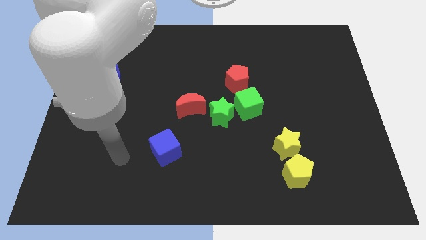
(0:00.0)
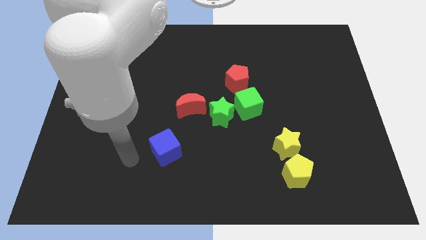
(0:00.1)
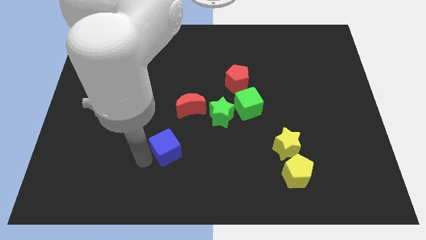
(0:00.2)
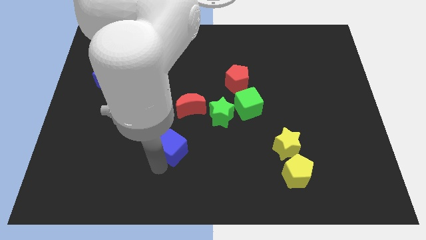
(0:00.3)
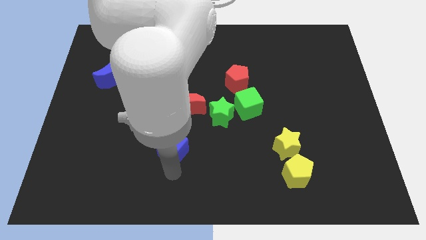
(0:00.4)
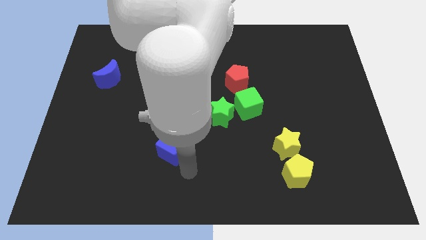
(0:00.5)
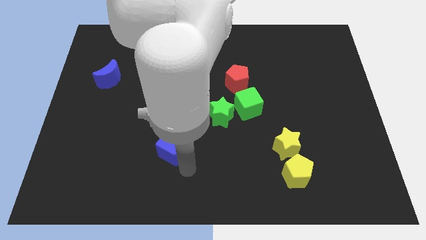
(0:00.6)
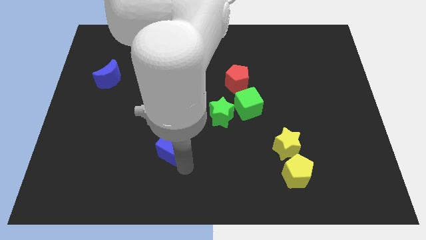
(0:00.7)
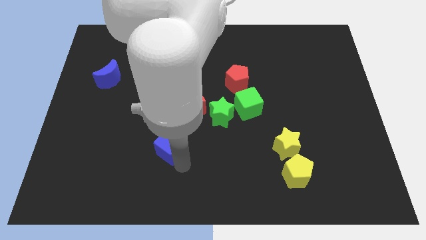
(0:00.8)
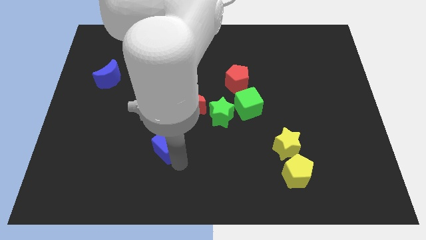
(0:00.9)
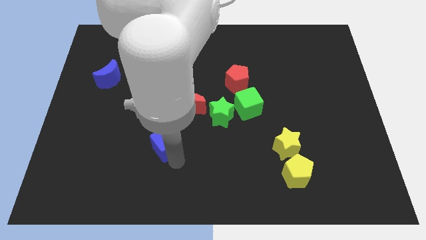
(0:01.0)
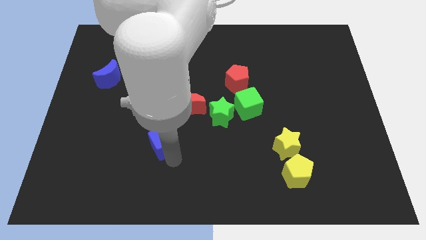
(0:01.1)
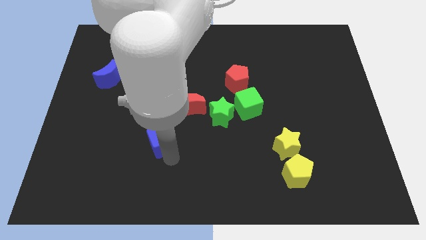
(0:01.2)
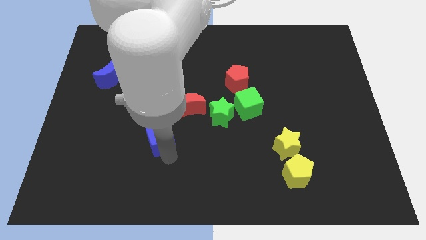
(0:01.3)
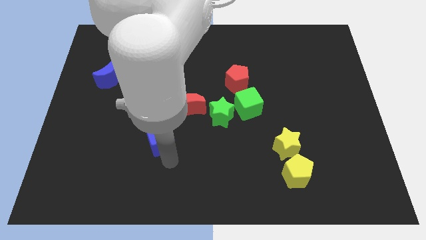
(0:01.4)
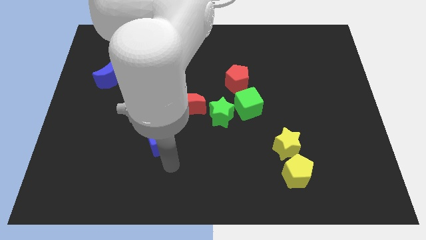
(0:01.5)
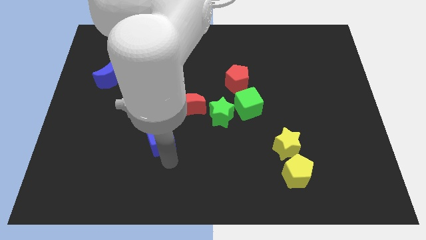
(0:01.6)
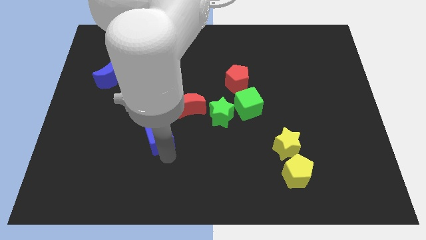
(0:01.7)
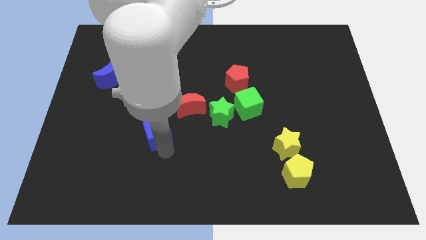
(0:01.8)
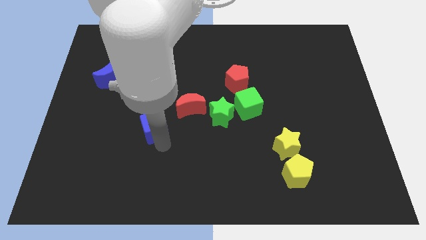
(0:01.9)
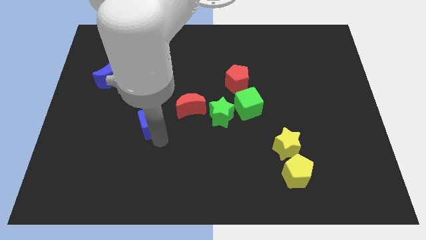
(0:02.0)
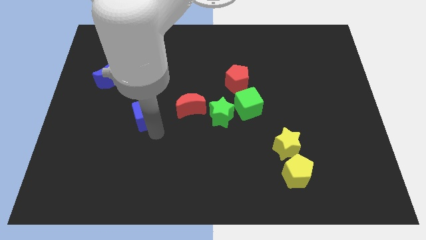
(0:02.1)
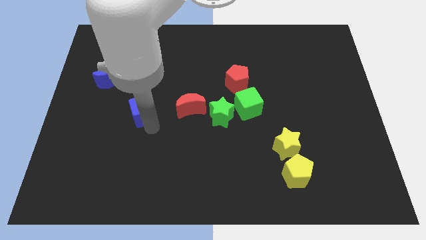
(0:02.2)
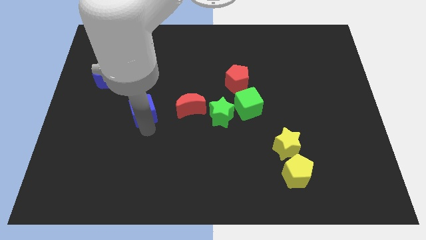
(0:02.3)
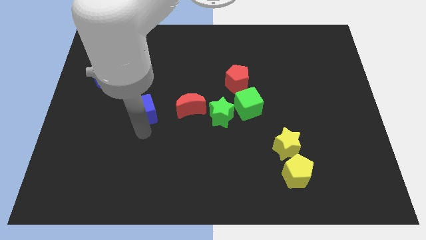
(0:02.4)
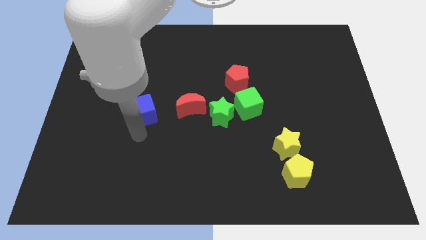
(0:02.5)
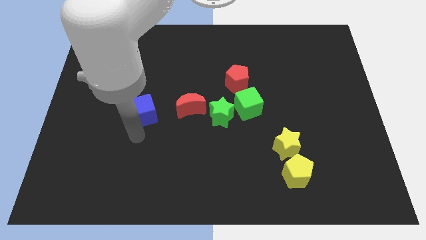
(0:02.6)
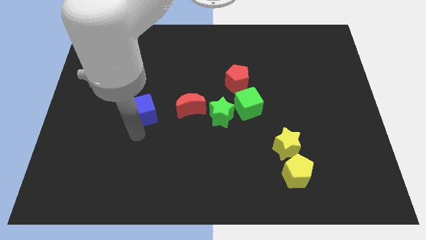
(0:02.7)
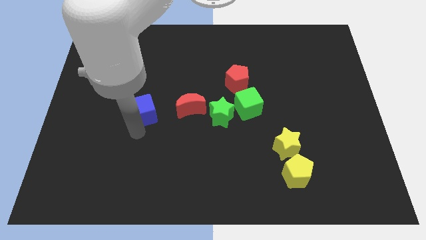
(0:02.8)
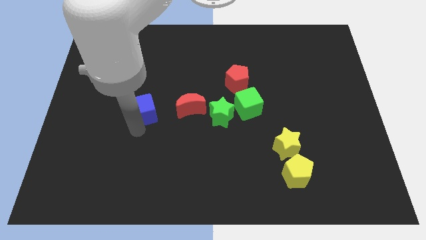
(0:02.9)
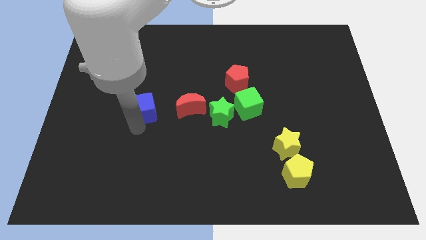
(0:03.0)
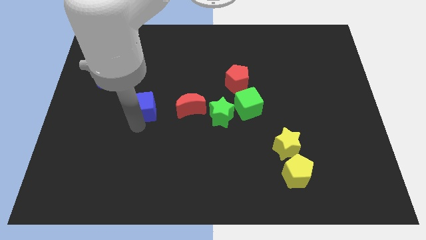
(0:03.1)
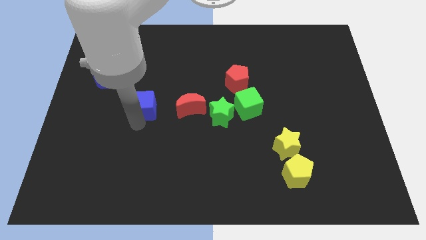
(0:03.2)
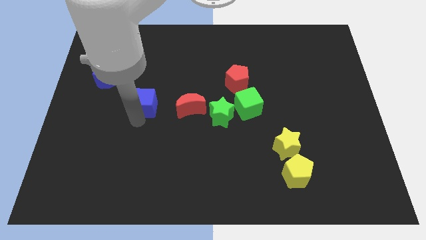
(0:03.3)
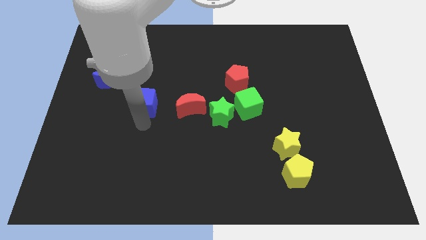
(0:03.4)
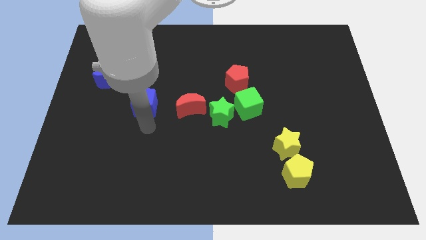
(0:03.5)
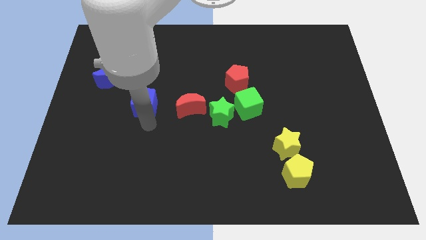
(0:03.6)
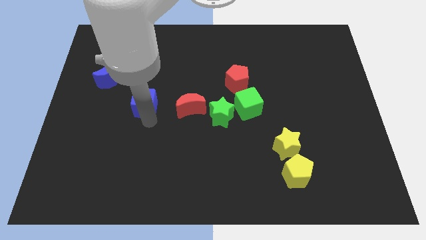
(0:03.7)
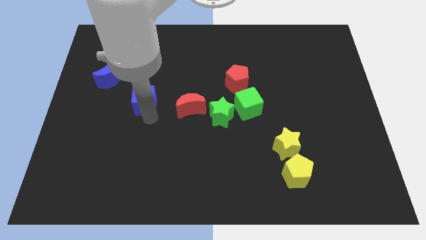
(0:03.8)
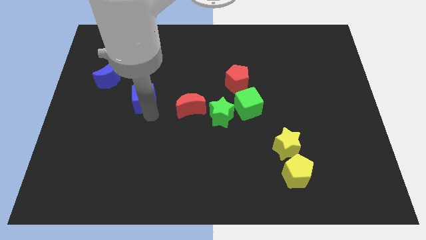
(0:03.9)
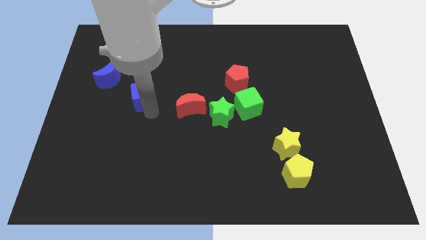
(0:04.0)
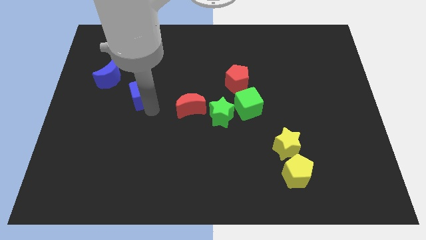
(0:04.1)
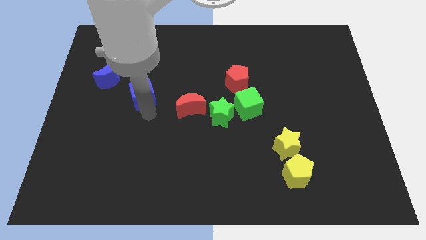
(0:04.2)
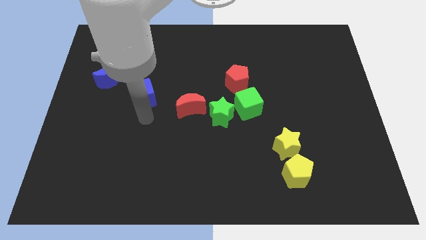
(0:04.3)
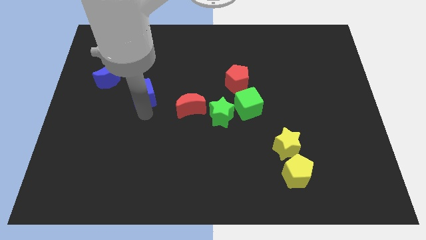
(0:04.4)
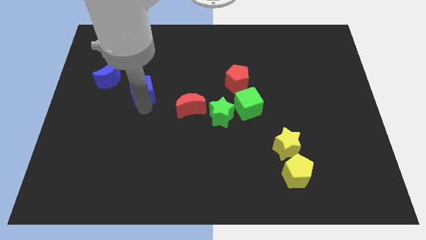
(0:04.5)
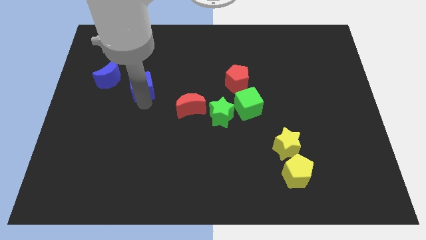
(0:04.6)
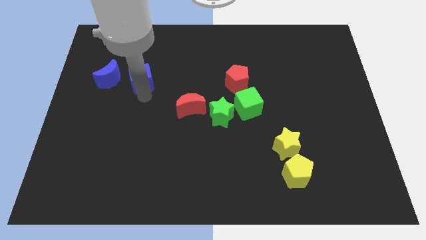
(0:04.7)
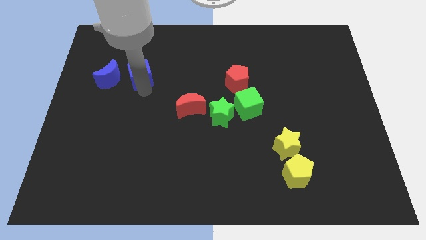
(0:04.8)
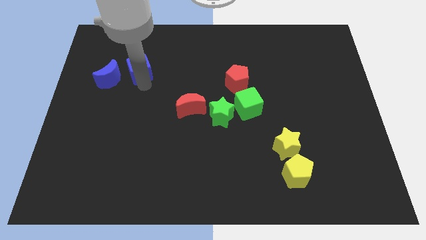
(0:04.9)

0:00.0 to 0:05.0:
push the blue cube diagonally up and to the right of the blue moon

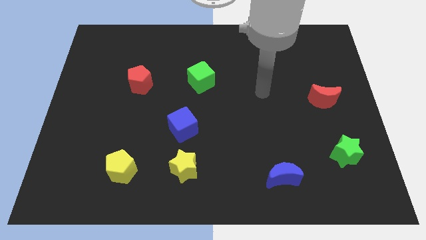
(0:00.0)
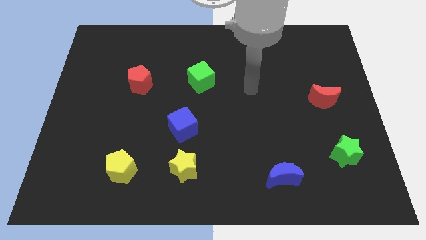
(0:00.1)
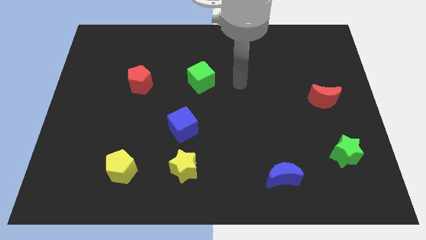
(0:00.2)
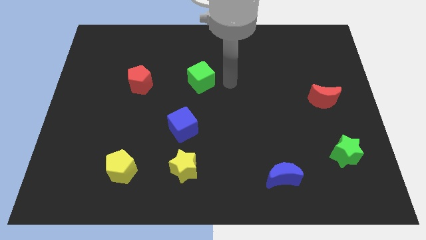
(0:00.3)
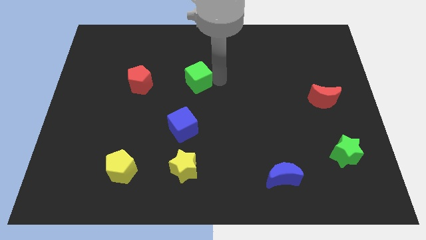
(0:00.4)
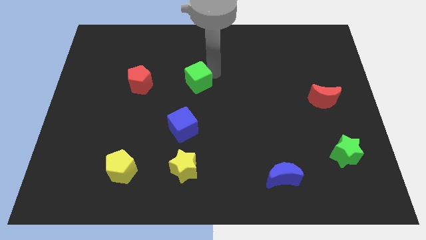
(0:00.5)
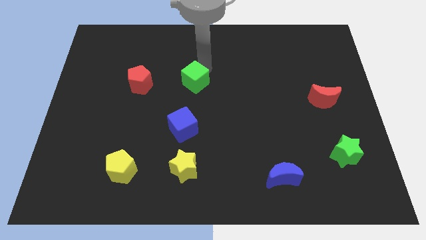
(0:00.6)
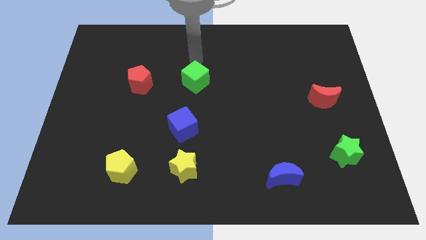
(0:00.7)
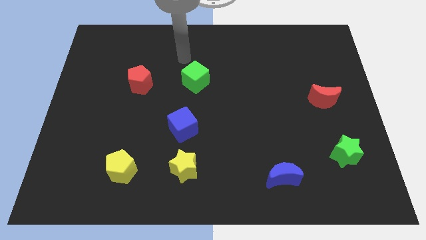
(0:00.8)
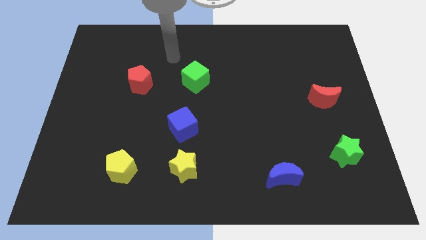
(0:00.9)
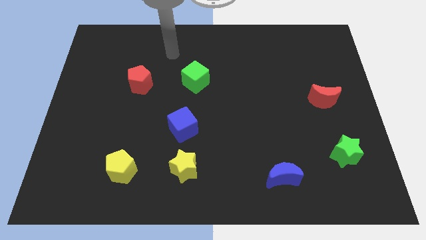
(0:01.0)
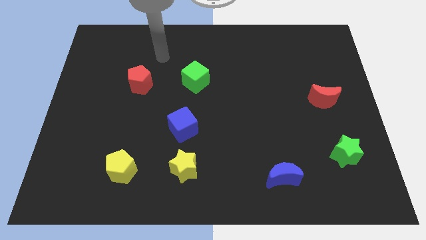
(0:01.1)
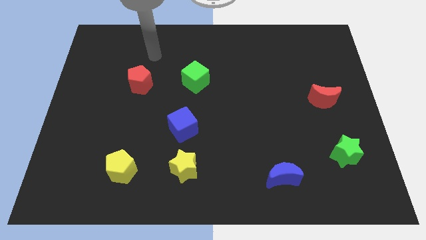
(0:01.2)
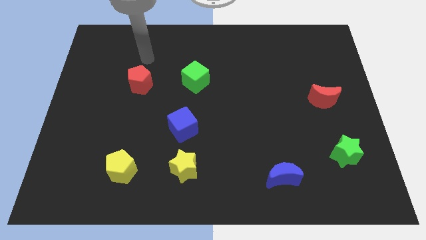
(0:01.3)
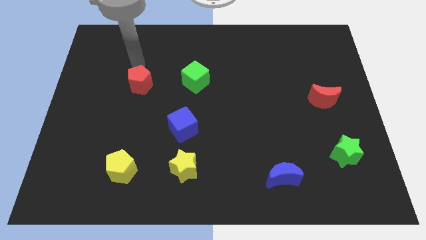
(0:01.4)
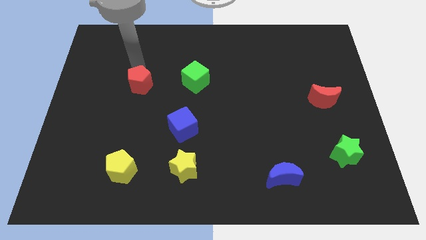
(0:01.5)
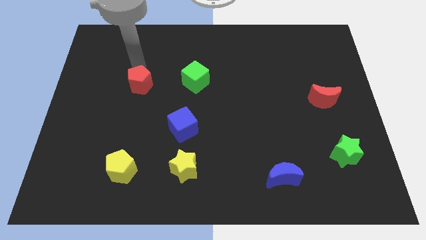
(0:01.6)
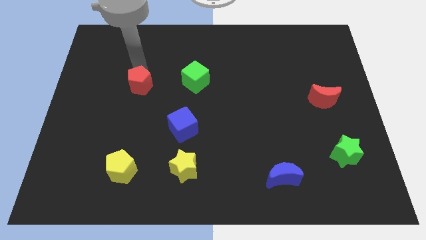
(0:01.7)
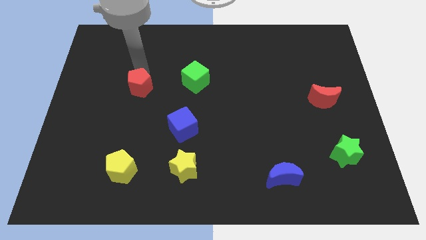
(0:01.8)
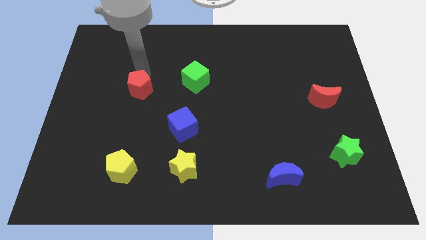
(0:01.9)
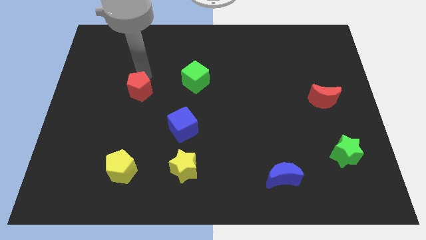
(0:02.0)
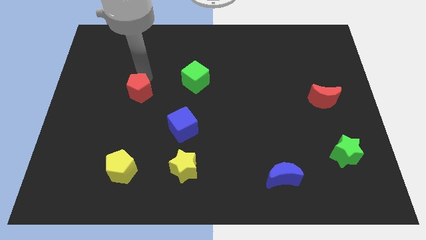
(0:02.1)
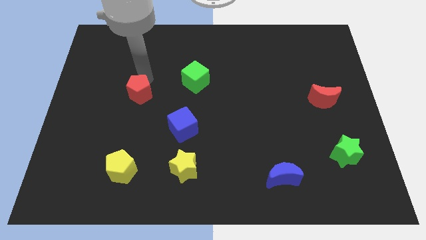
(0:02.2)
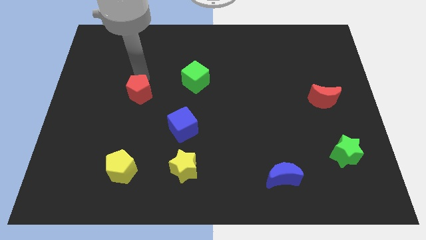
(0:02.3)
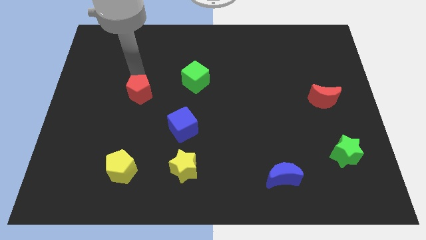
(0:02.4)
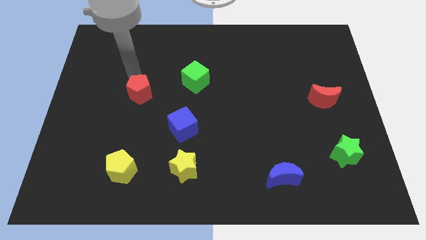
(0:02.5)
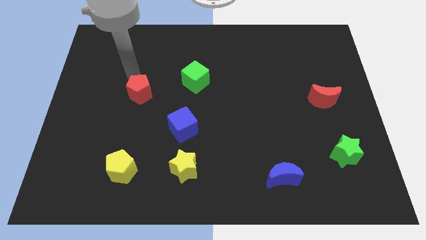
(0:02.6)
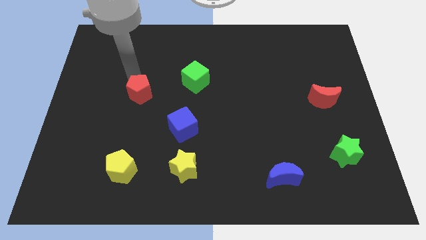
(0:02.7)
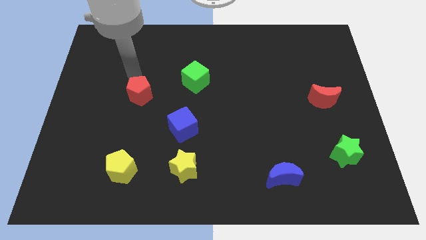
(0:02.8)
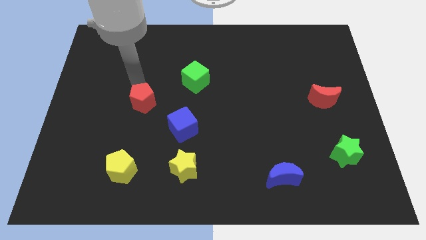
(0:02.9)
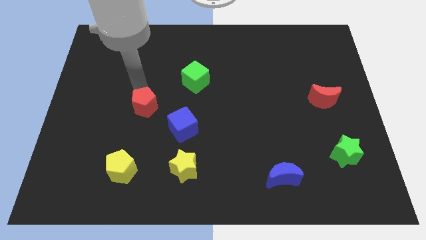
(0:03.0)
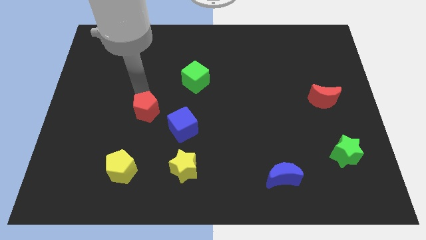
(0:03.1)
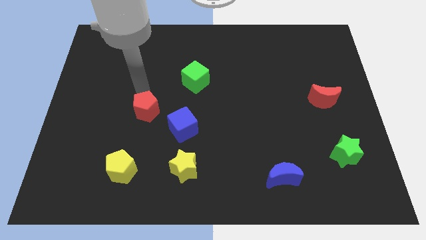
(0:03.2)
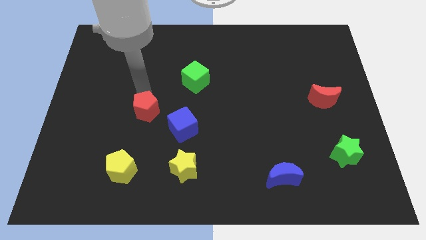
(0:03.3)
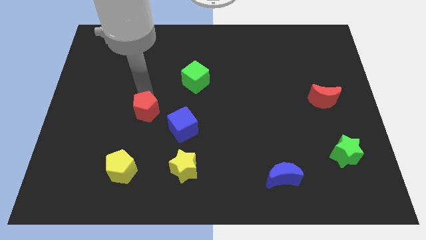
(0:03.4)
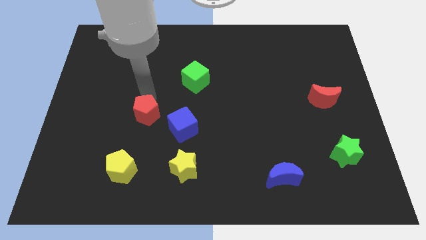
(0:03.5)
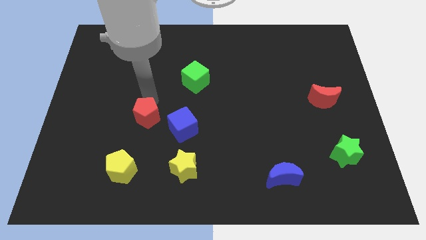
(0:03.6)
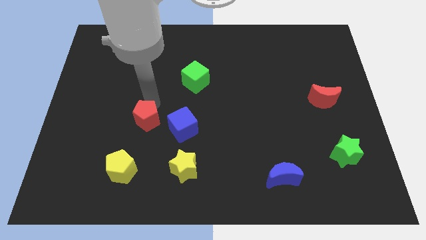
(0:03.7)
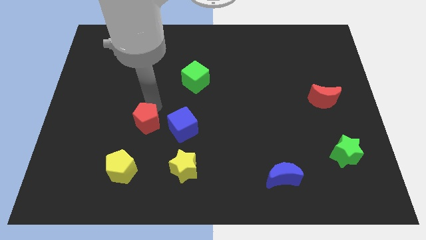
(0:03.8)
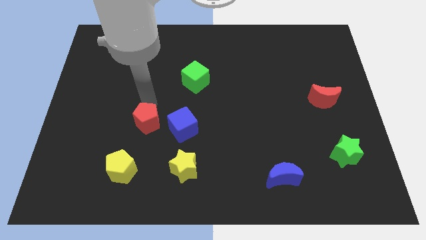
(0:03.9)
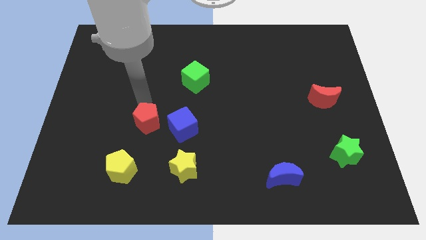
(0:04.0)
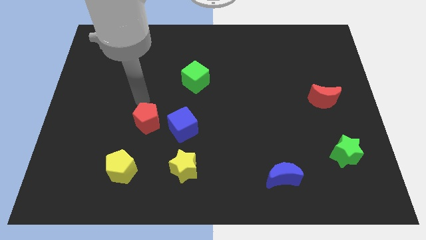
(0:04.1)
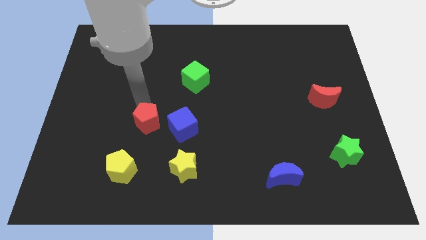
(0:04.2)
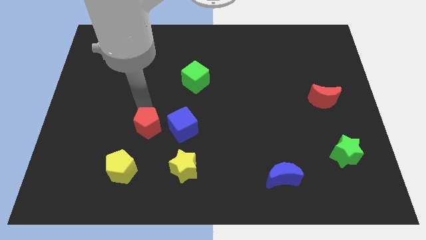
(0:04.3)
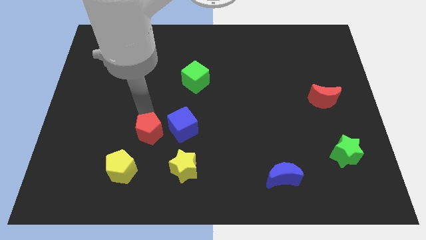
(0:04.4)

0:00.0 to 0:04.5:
put the red pentagon to the bottom left side of the blue cube
